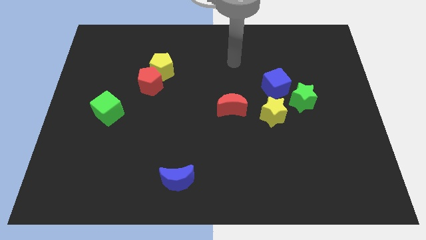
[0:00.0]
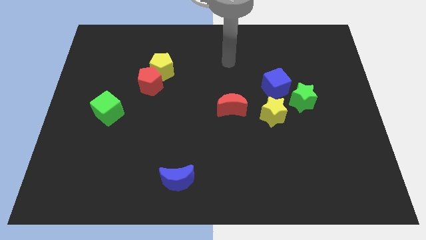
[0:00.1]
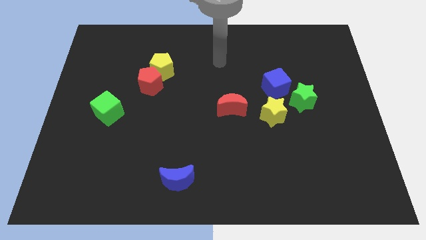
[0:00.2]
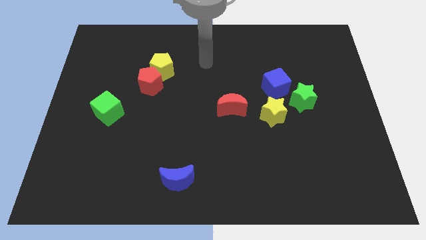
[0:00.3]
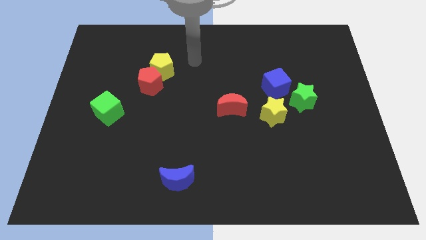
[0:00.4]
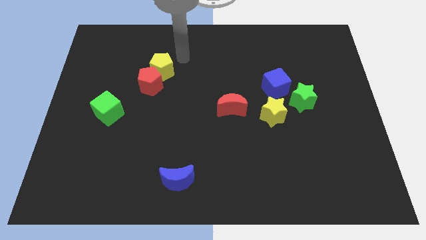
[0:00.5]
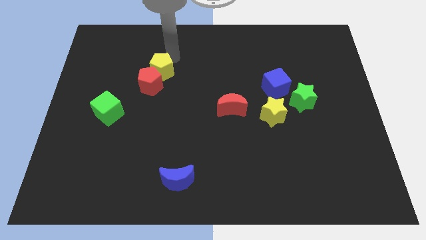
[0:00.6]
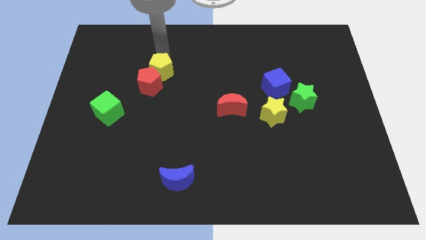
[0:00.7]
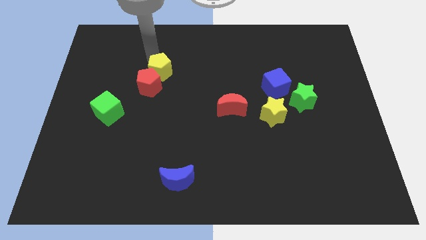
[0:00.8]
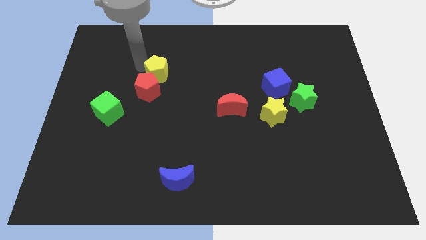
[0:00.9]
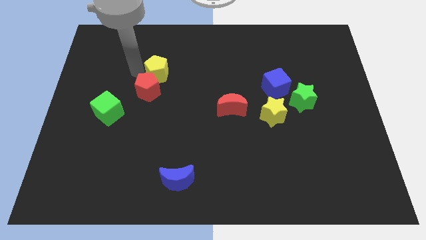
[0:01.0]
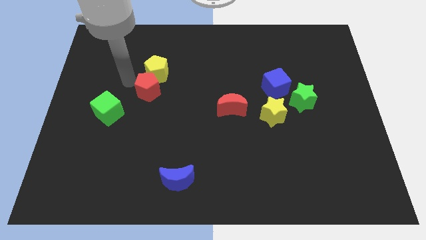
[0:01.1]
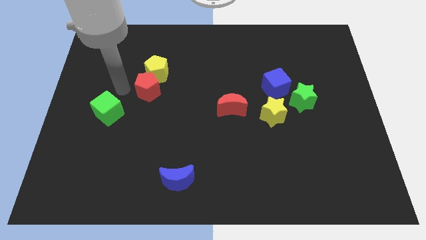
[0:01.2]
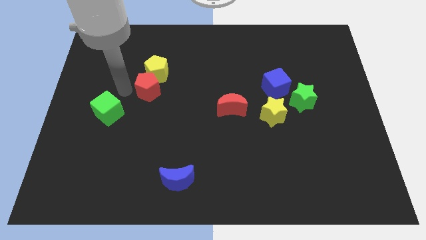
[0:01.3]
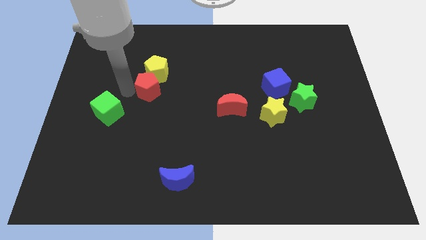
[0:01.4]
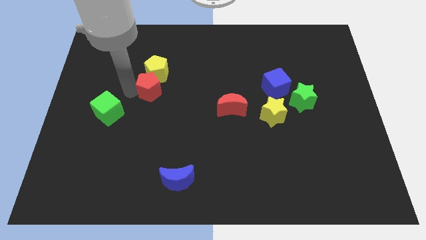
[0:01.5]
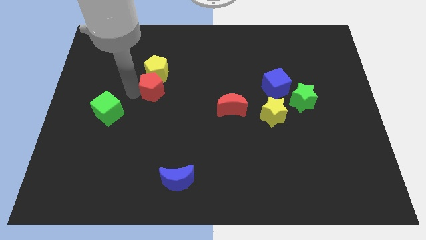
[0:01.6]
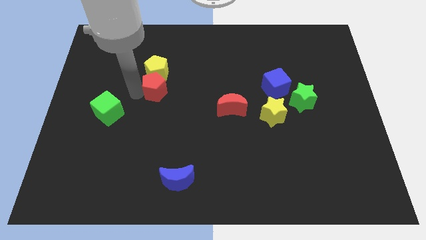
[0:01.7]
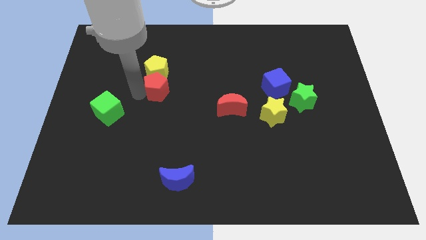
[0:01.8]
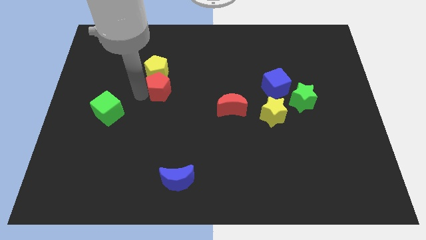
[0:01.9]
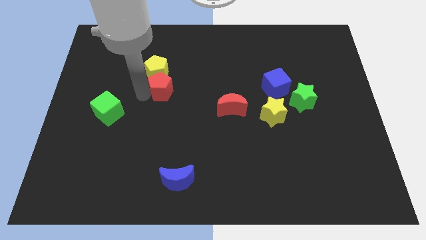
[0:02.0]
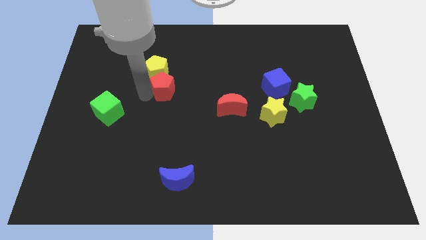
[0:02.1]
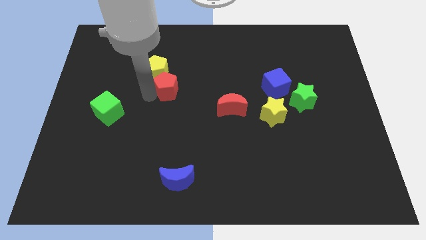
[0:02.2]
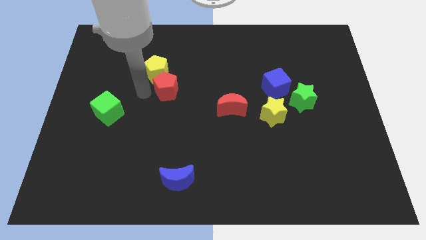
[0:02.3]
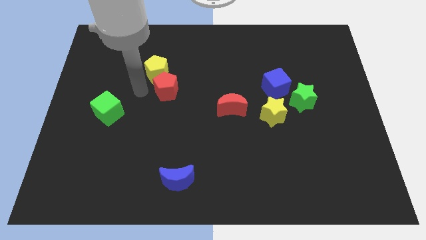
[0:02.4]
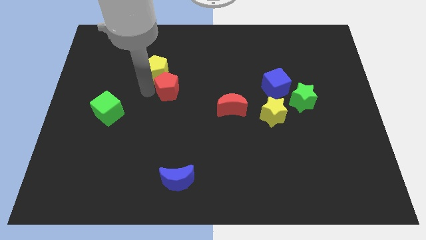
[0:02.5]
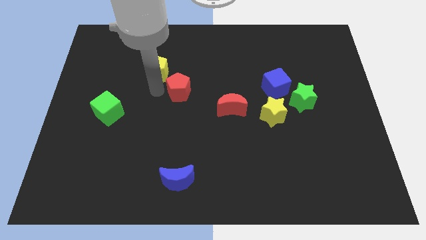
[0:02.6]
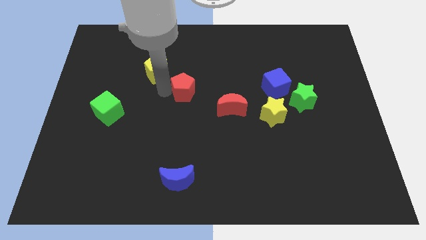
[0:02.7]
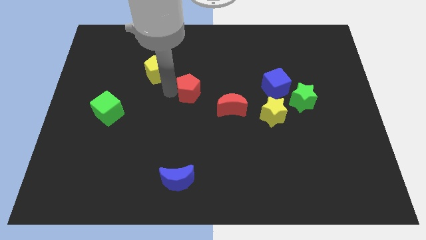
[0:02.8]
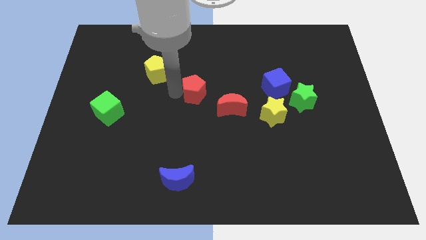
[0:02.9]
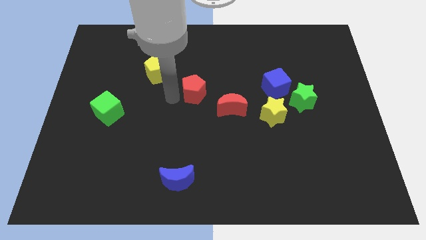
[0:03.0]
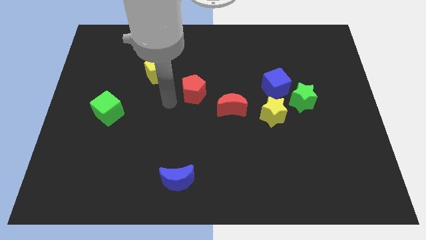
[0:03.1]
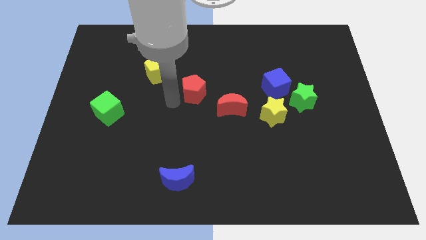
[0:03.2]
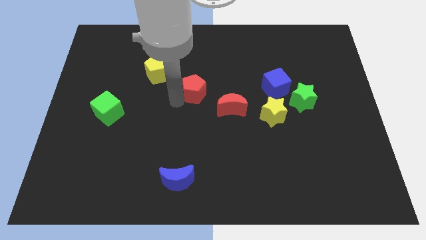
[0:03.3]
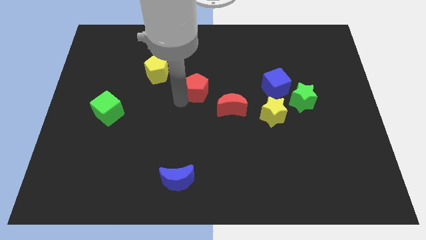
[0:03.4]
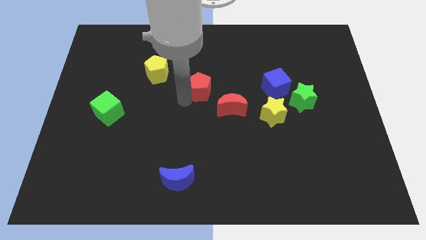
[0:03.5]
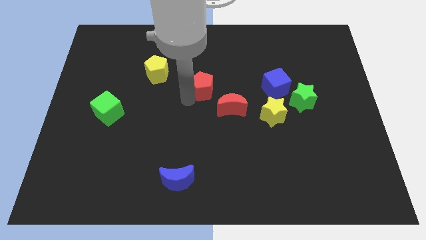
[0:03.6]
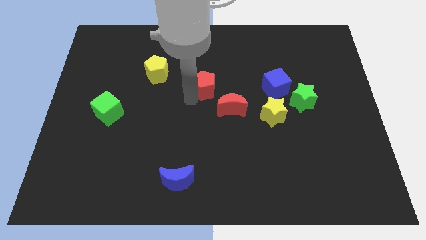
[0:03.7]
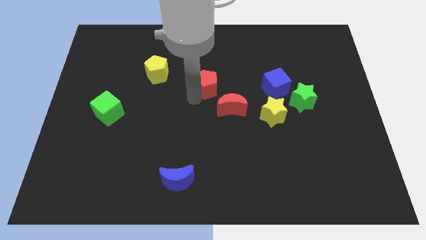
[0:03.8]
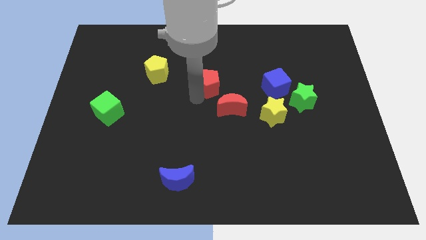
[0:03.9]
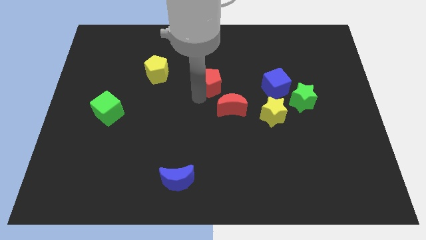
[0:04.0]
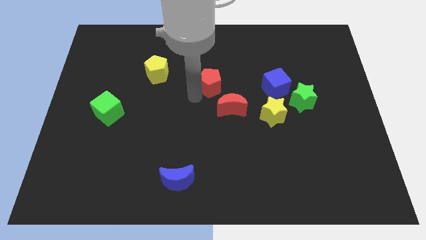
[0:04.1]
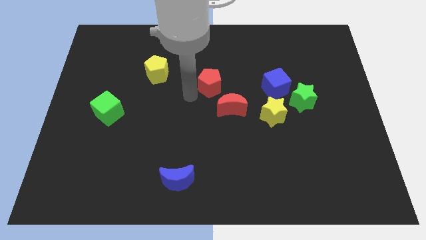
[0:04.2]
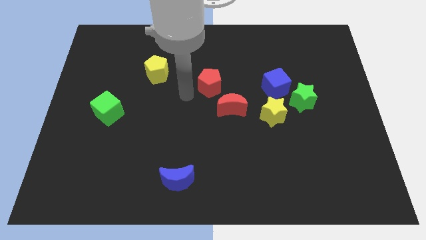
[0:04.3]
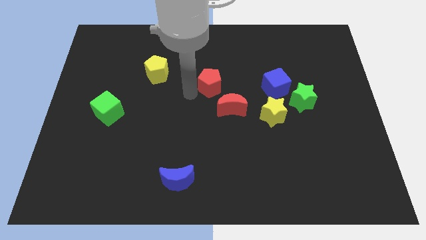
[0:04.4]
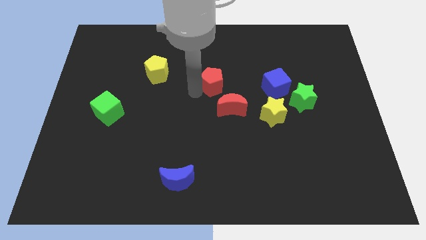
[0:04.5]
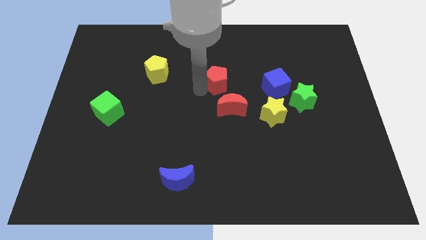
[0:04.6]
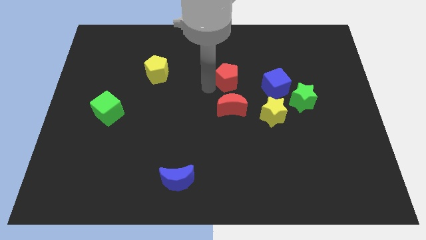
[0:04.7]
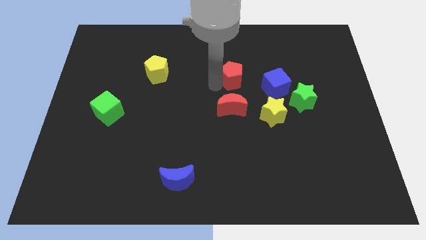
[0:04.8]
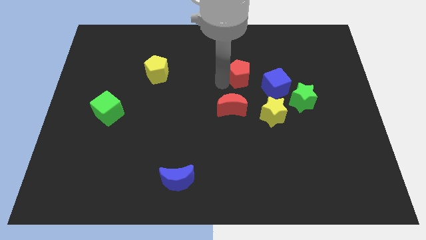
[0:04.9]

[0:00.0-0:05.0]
move the red pentagon diagonally up and to the left of the blue cube

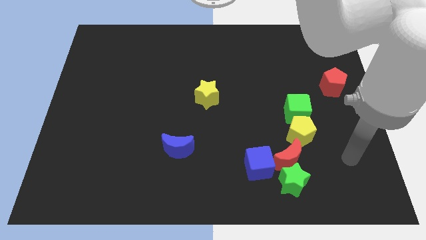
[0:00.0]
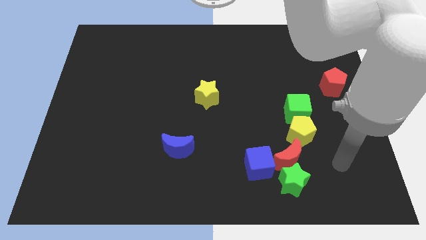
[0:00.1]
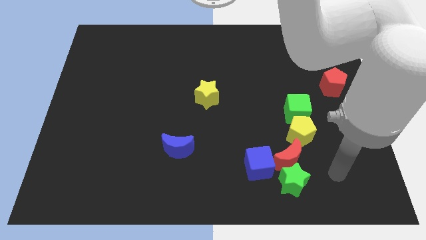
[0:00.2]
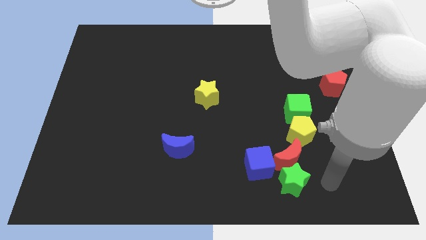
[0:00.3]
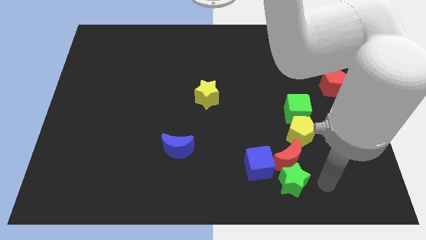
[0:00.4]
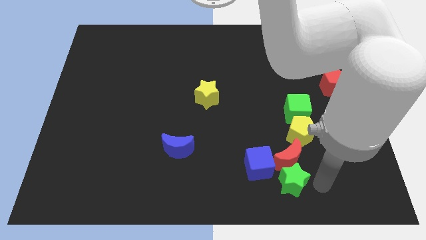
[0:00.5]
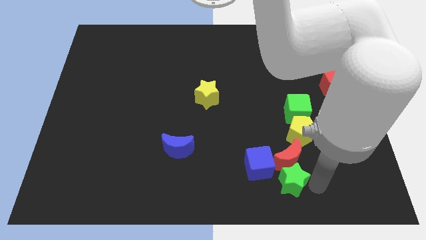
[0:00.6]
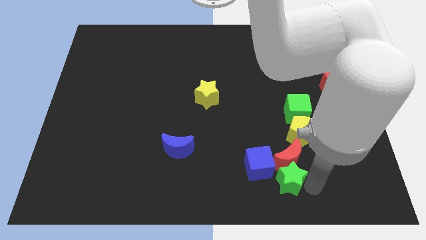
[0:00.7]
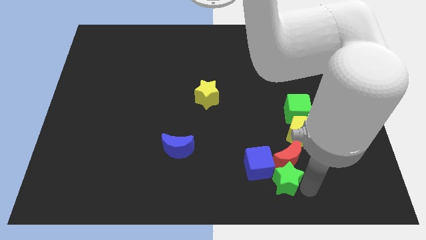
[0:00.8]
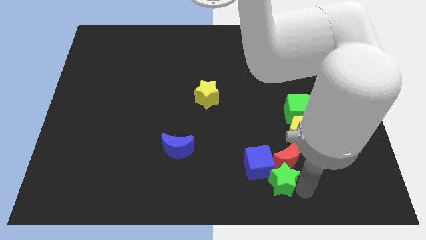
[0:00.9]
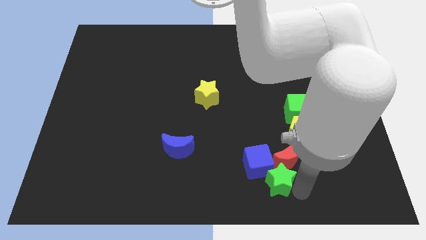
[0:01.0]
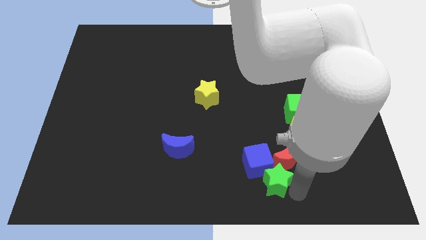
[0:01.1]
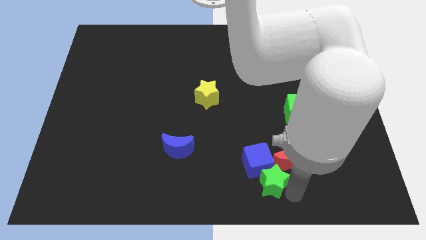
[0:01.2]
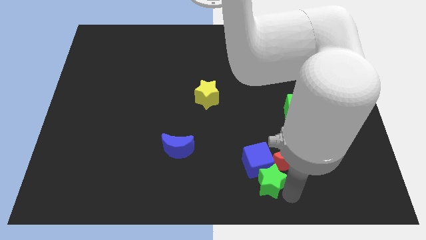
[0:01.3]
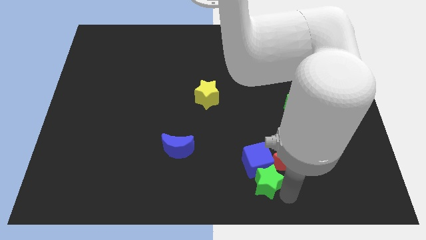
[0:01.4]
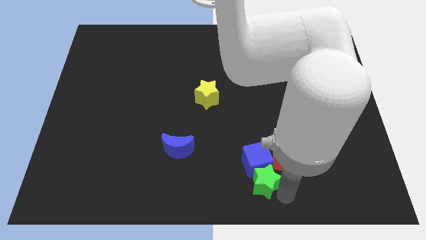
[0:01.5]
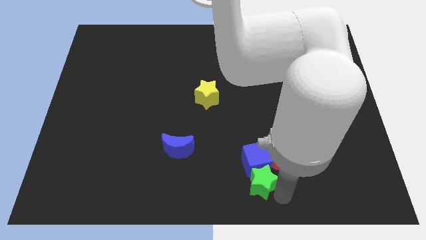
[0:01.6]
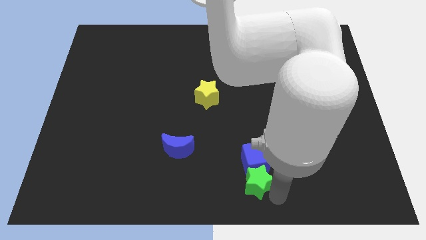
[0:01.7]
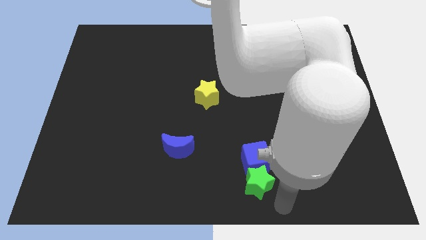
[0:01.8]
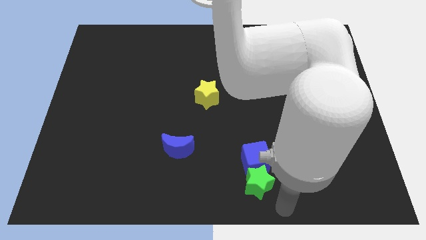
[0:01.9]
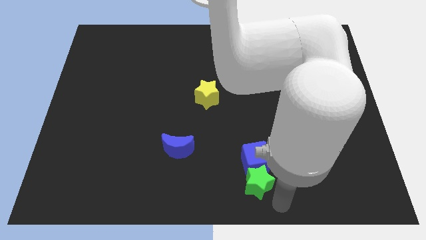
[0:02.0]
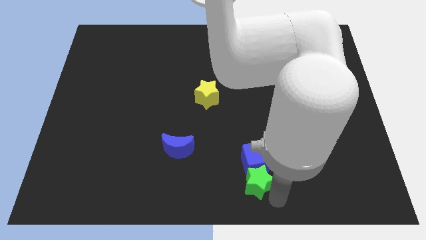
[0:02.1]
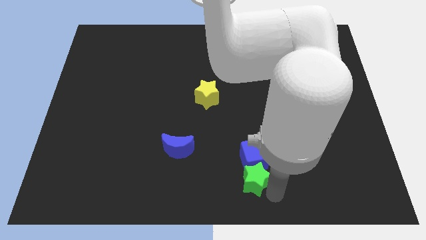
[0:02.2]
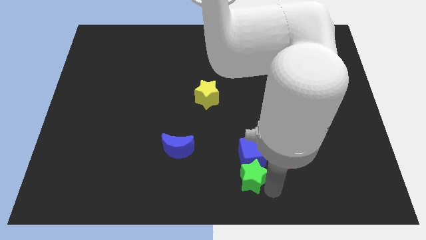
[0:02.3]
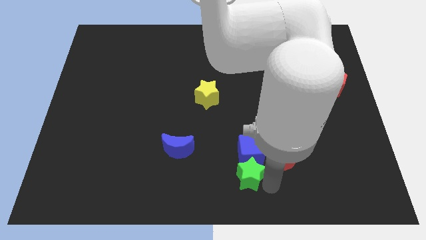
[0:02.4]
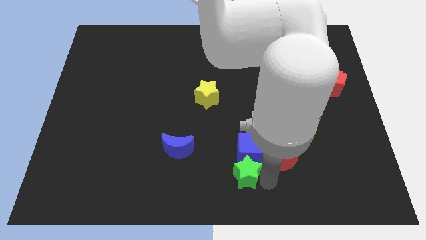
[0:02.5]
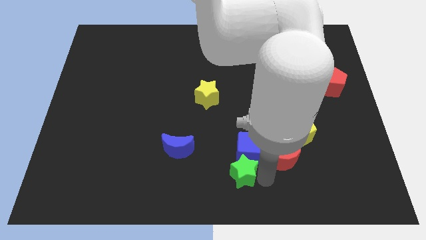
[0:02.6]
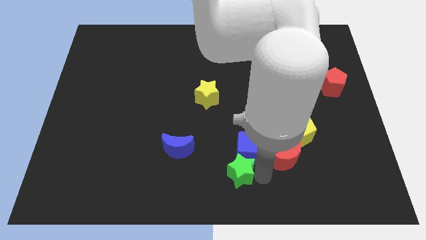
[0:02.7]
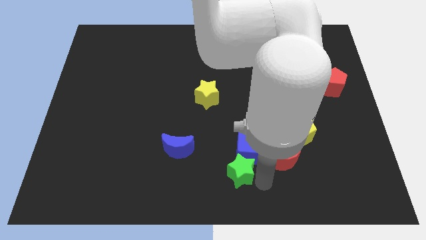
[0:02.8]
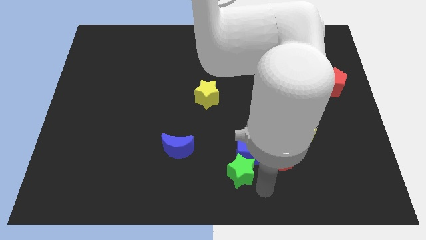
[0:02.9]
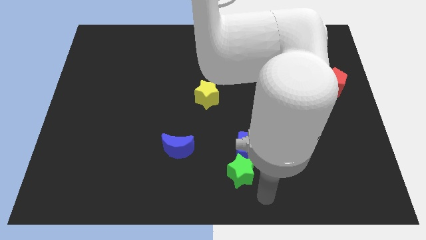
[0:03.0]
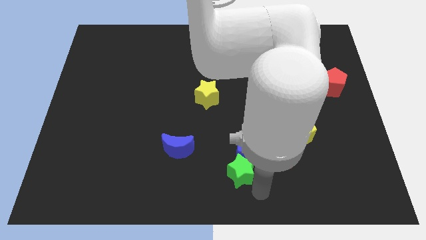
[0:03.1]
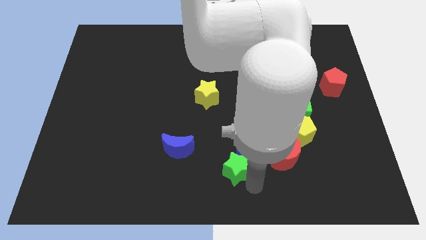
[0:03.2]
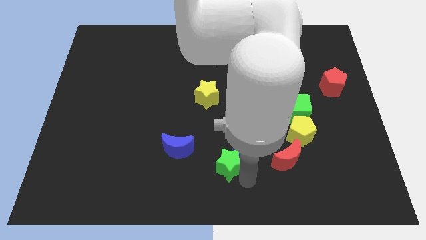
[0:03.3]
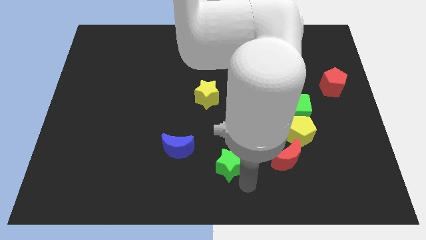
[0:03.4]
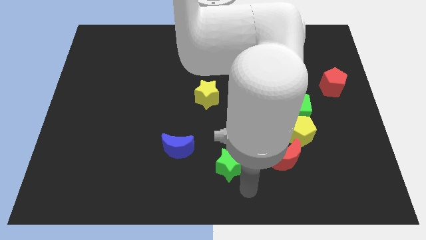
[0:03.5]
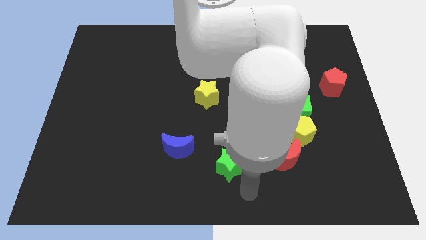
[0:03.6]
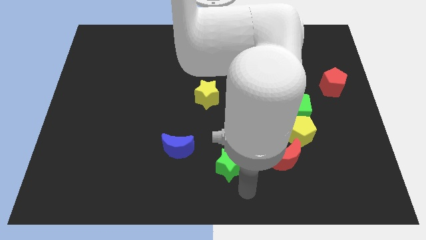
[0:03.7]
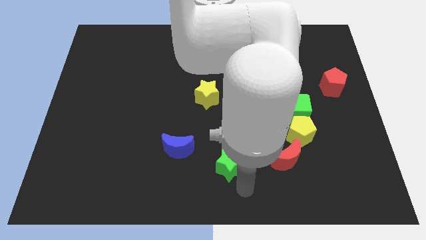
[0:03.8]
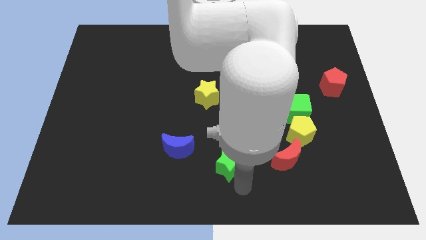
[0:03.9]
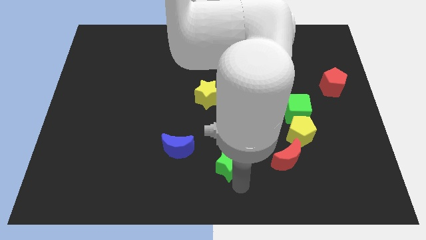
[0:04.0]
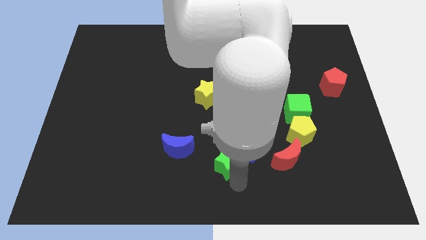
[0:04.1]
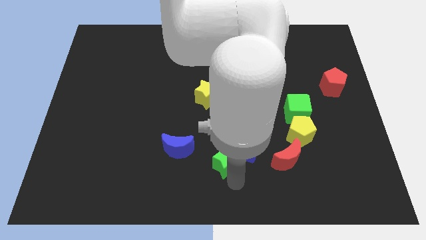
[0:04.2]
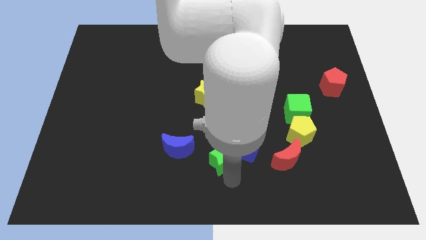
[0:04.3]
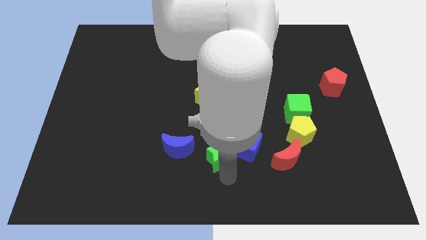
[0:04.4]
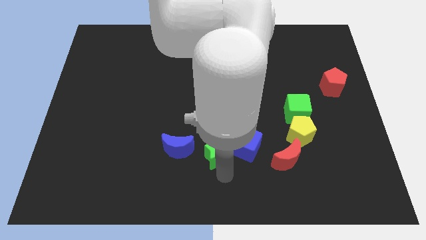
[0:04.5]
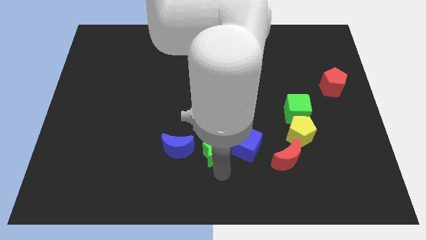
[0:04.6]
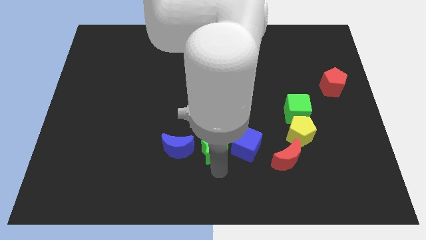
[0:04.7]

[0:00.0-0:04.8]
move the green star to the bottom of the yellow star
